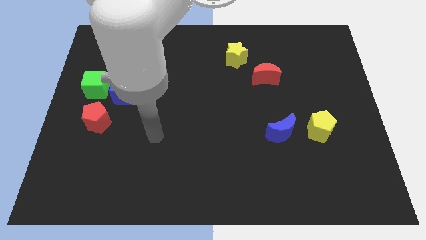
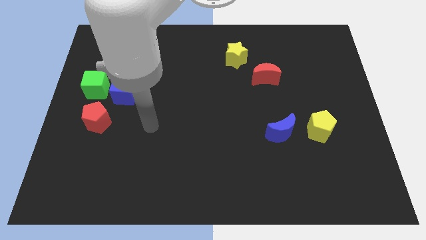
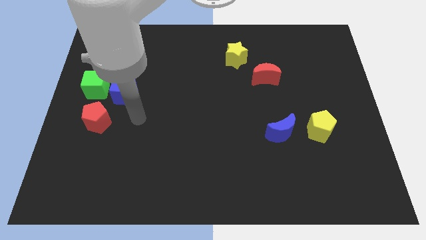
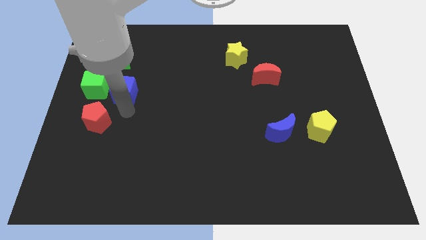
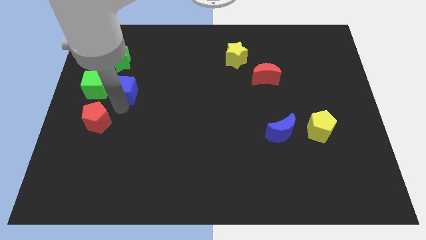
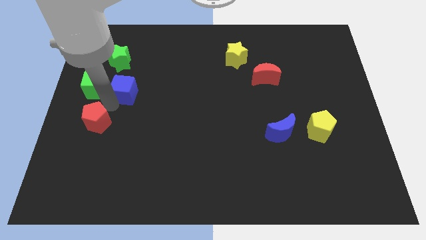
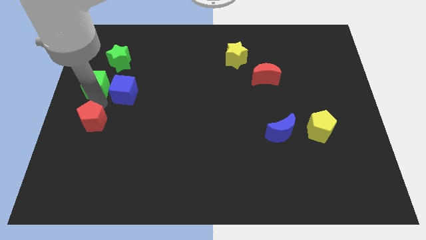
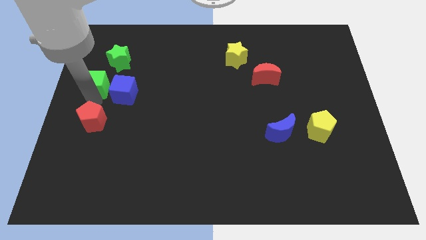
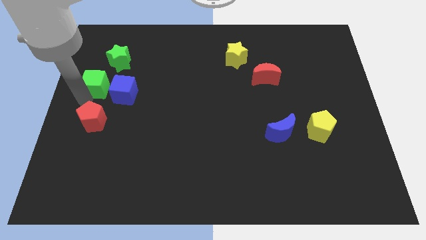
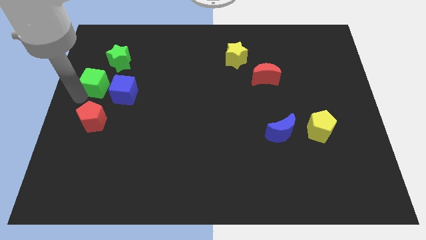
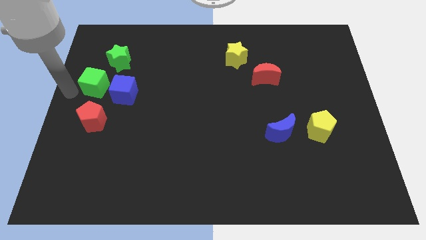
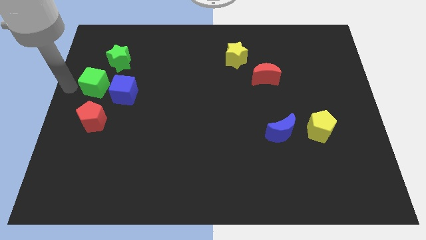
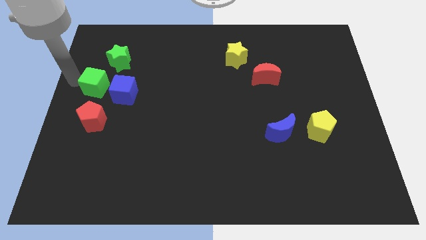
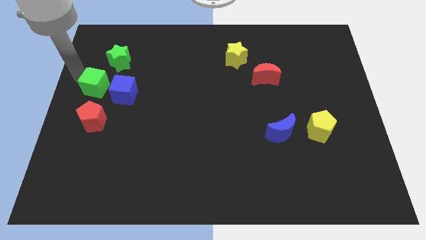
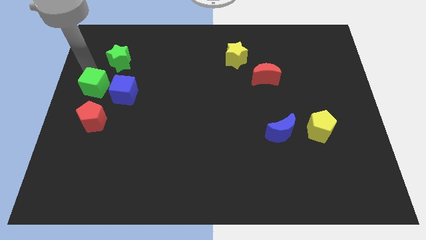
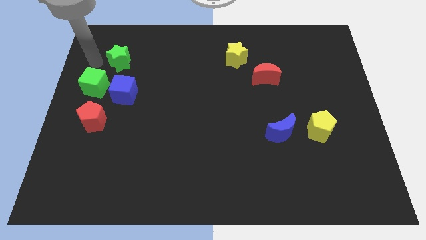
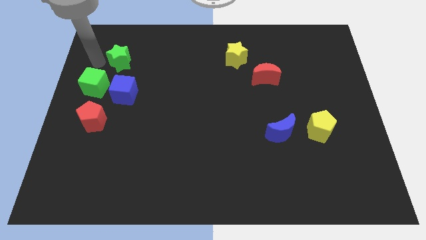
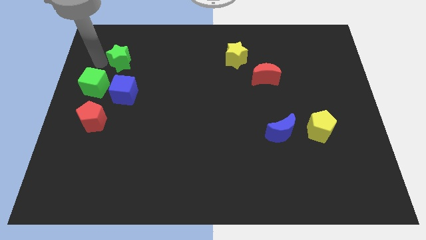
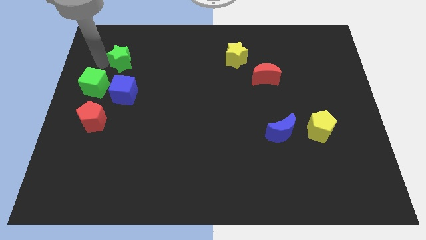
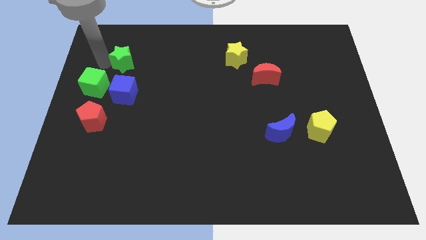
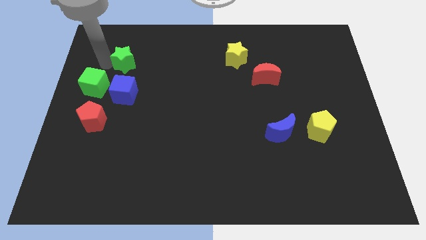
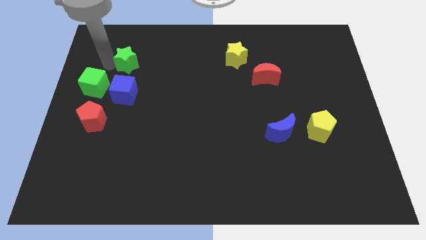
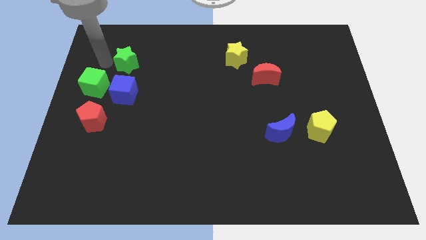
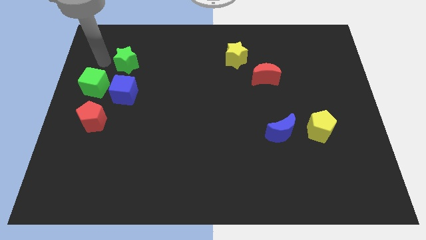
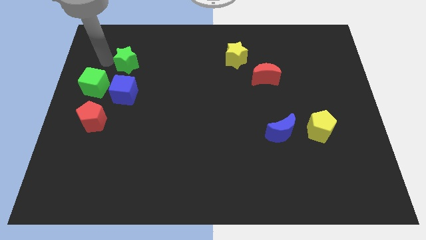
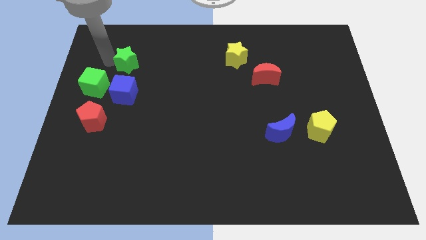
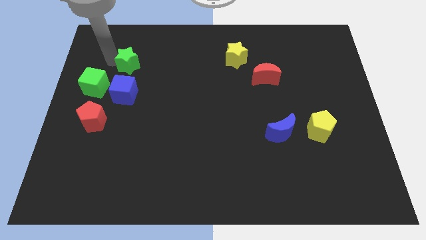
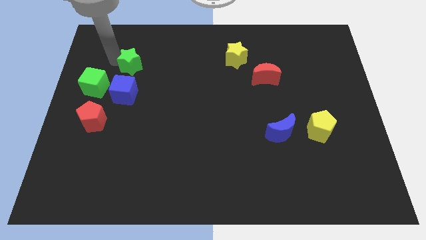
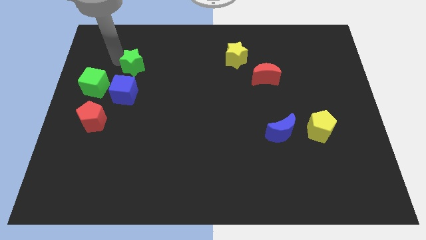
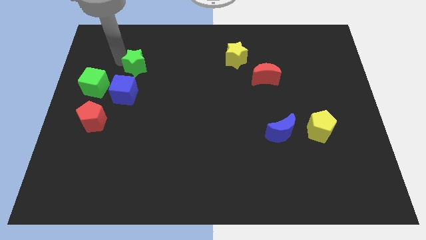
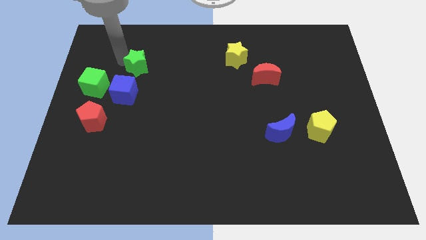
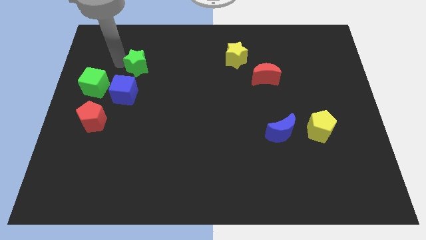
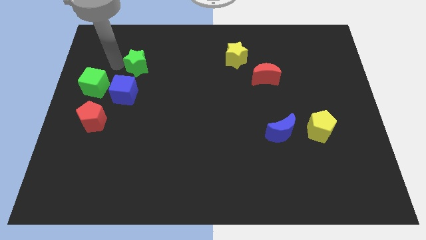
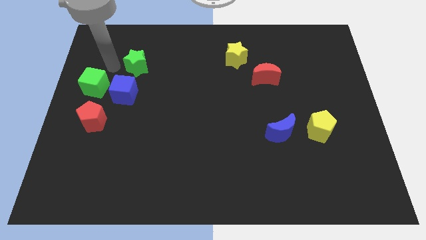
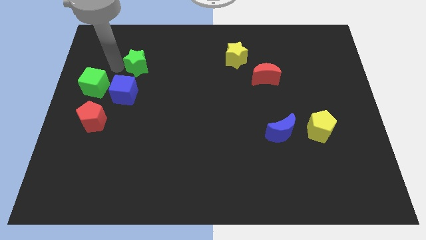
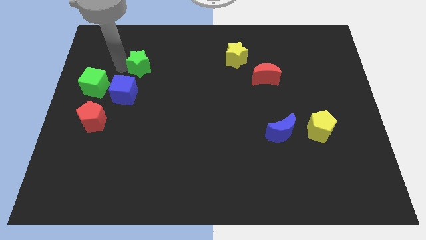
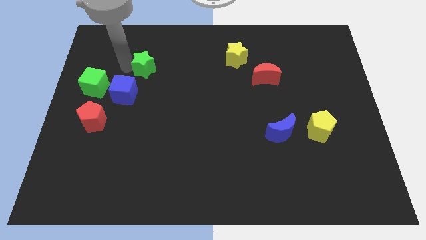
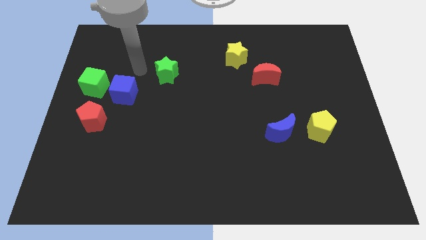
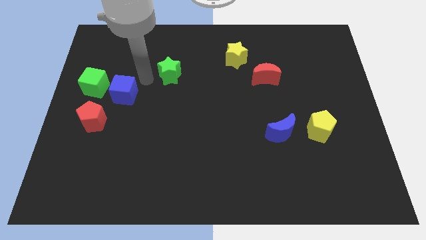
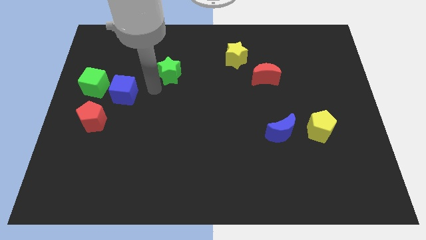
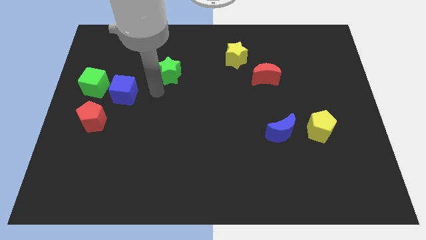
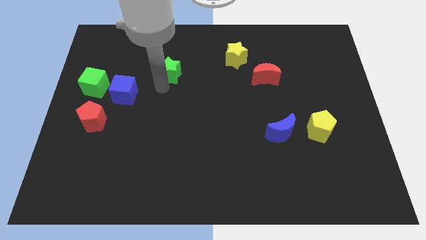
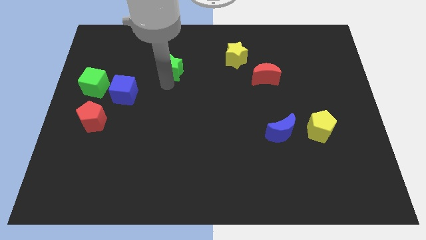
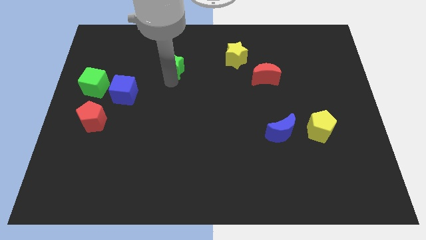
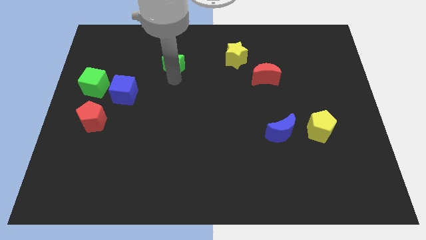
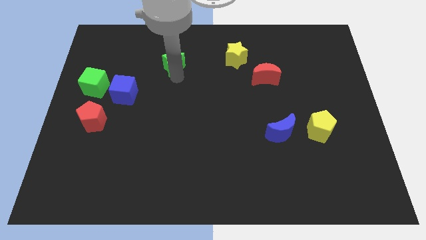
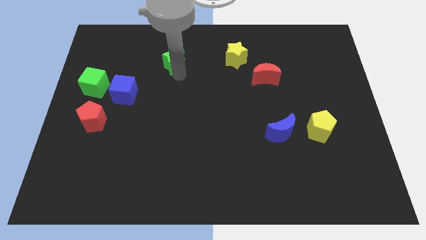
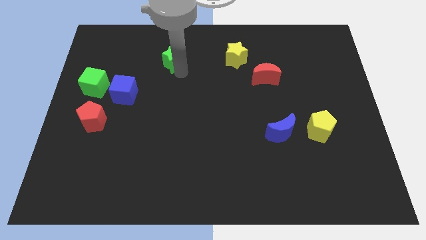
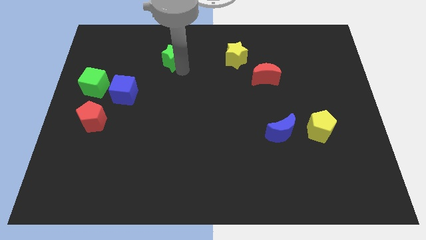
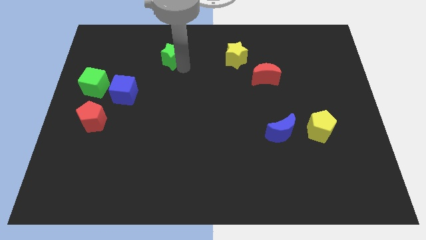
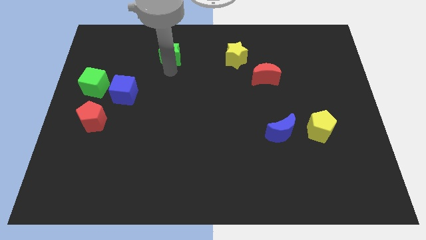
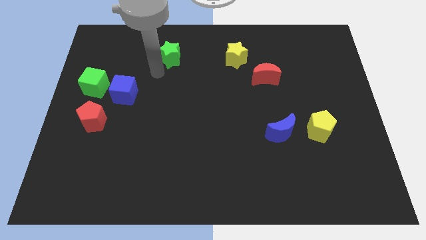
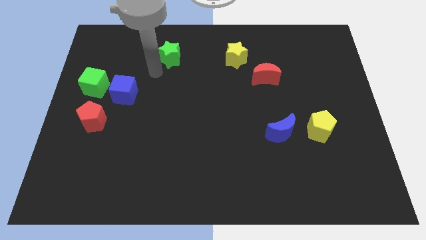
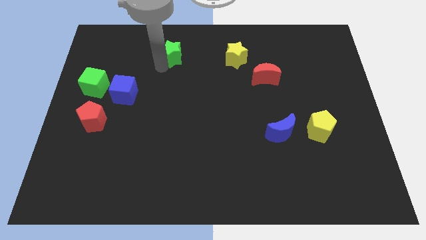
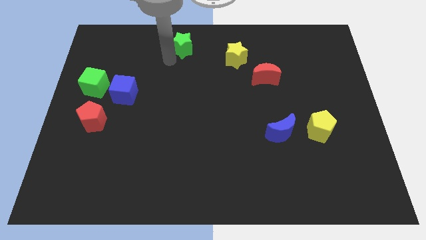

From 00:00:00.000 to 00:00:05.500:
put the green star to the top side
